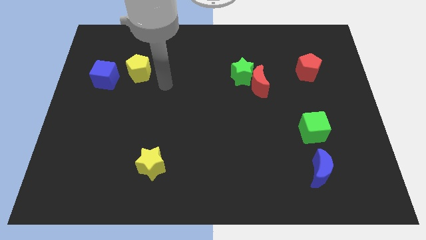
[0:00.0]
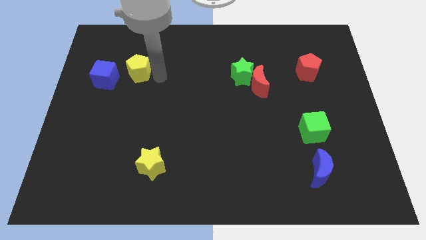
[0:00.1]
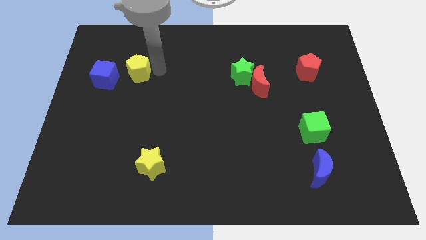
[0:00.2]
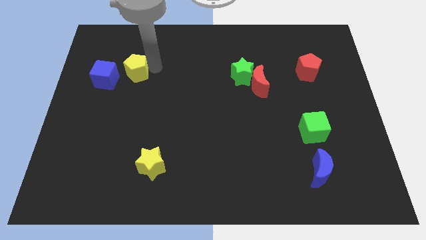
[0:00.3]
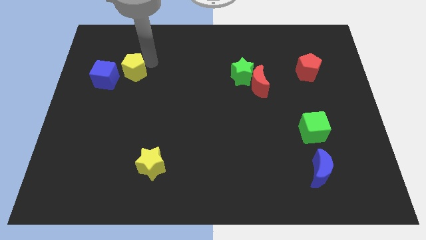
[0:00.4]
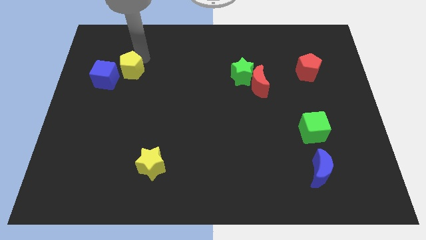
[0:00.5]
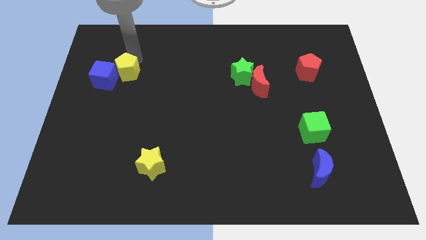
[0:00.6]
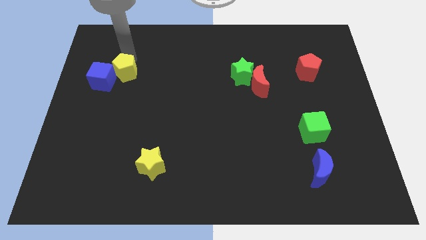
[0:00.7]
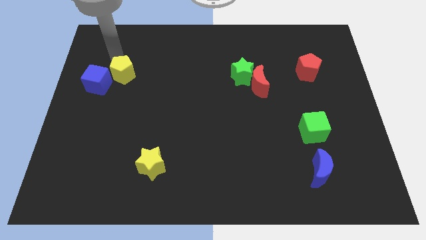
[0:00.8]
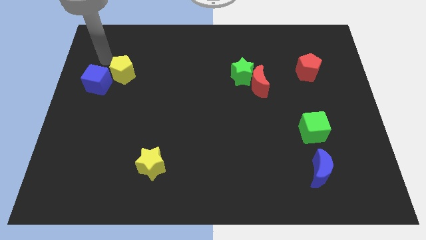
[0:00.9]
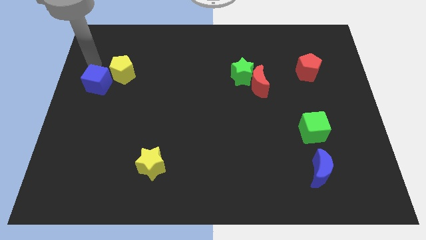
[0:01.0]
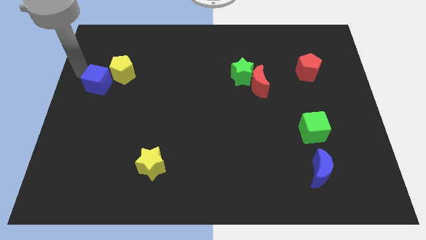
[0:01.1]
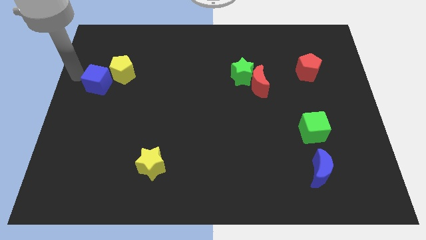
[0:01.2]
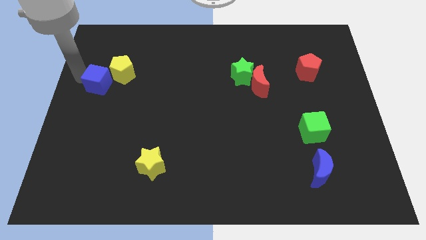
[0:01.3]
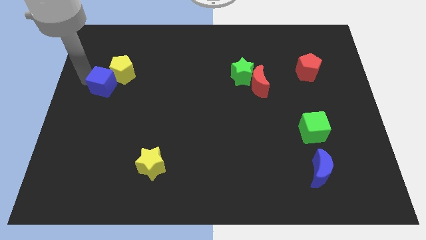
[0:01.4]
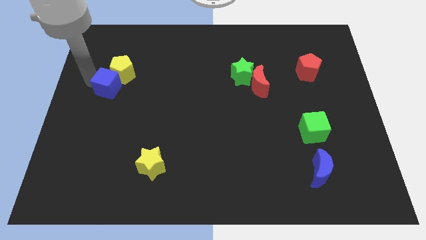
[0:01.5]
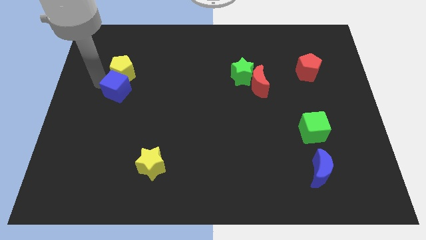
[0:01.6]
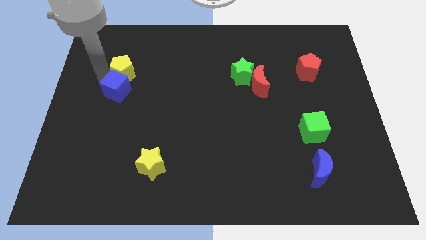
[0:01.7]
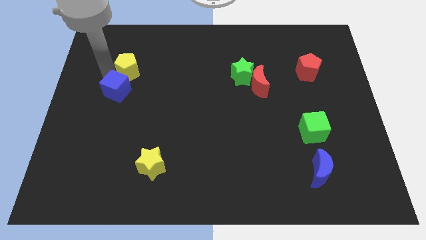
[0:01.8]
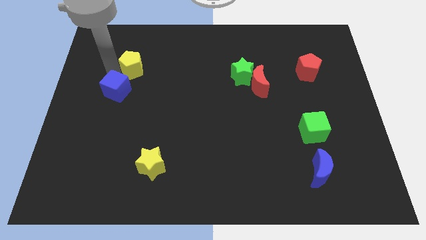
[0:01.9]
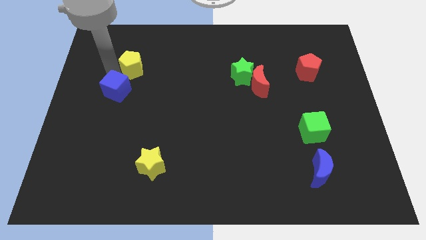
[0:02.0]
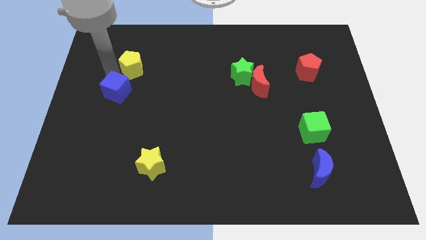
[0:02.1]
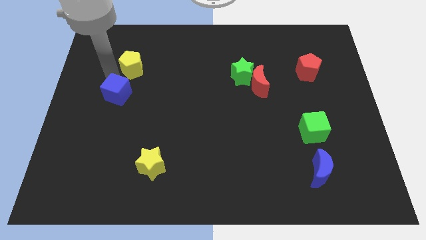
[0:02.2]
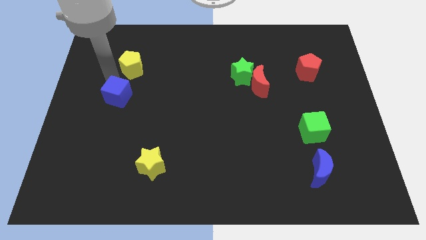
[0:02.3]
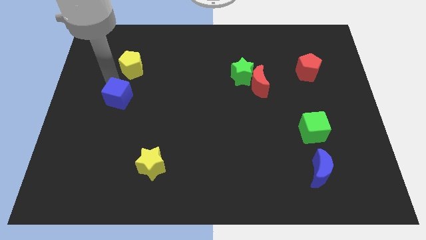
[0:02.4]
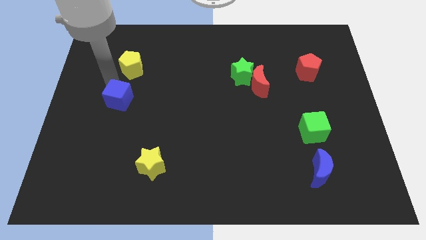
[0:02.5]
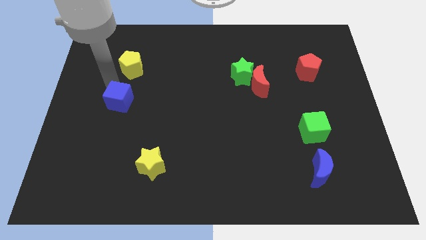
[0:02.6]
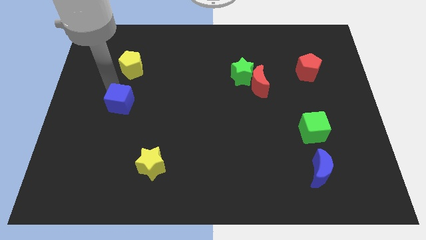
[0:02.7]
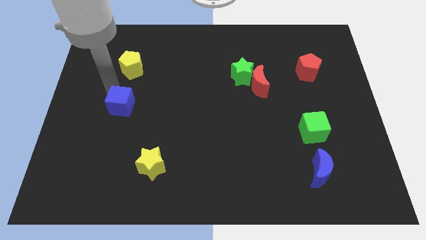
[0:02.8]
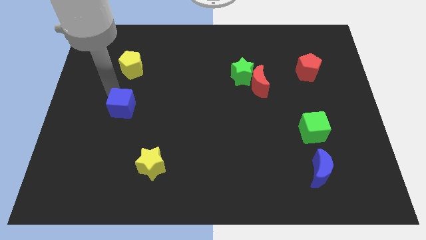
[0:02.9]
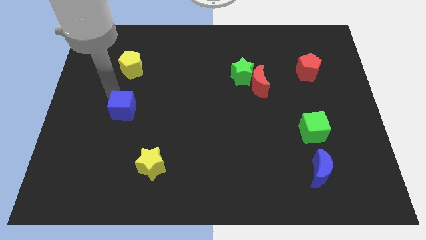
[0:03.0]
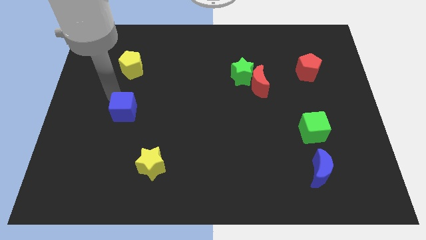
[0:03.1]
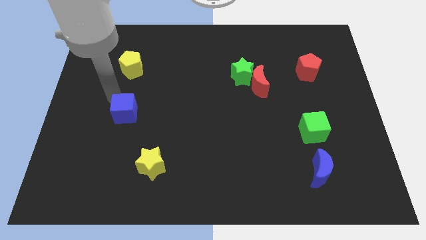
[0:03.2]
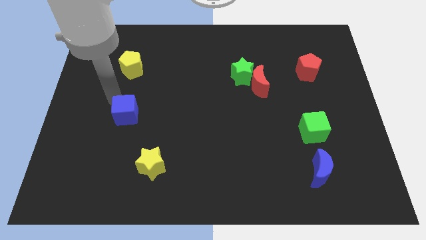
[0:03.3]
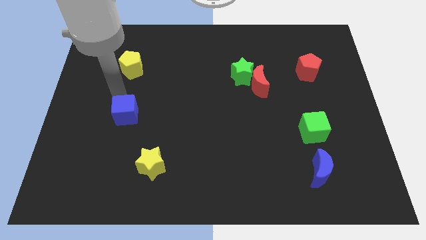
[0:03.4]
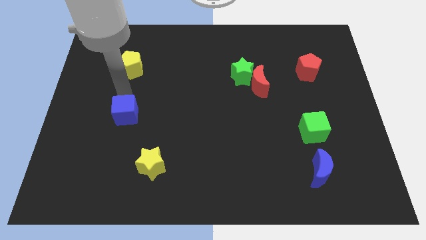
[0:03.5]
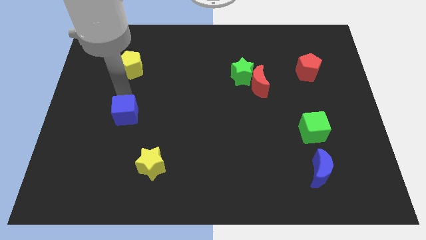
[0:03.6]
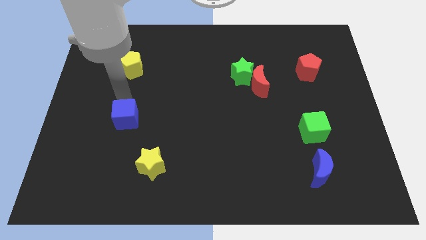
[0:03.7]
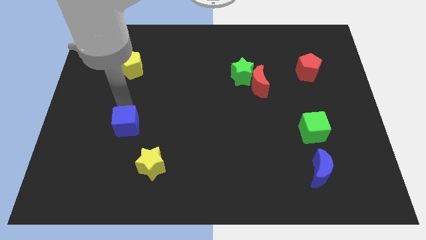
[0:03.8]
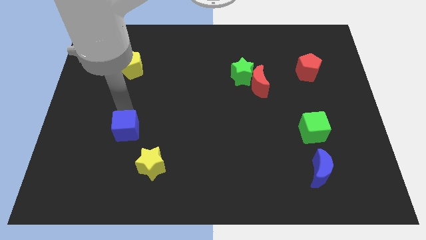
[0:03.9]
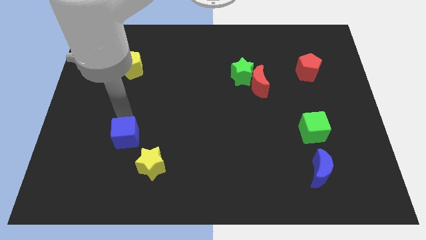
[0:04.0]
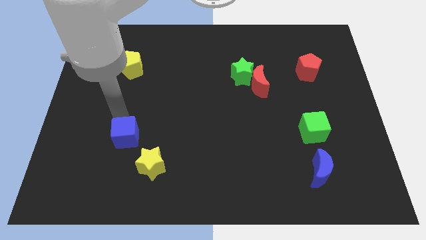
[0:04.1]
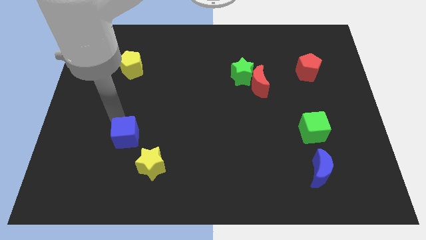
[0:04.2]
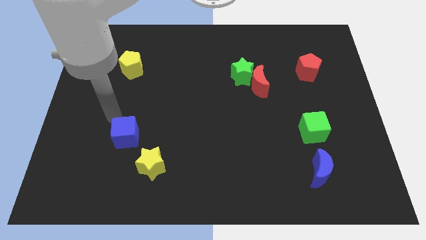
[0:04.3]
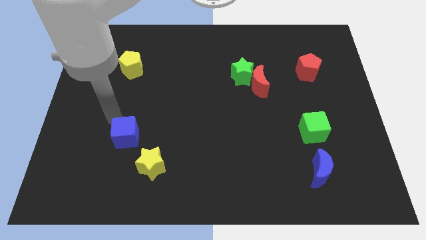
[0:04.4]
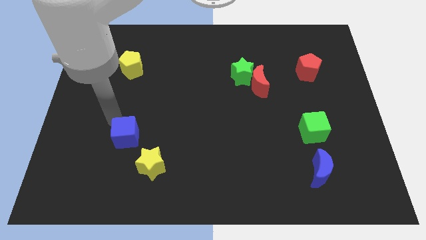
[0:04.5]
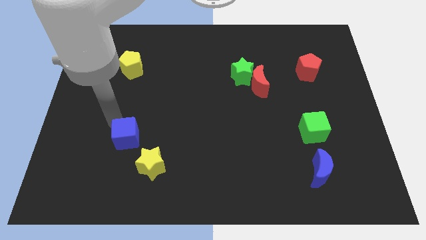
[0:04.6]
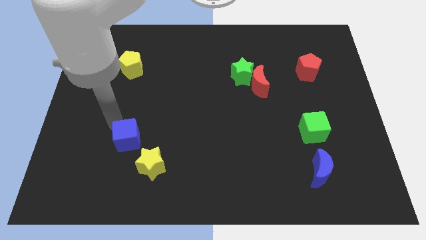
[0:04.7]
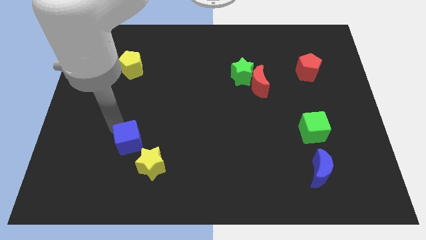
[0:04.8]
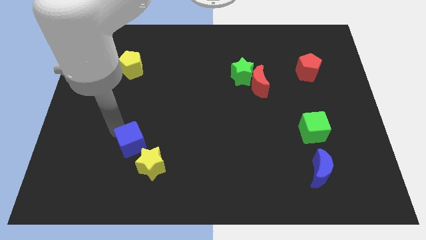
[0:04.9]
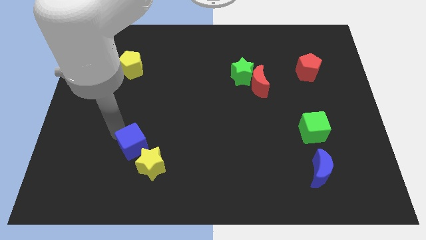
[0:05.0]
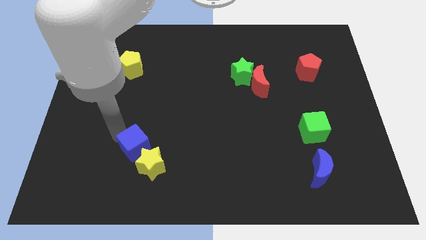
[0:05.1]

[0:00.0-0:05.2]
put the blue cube to the yellow star

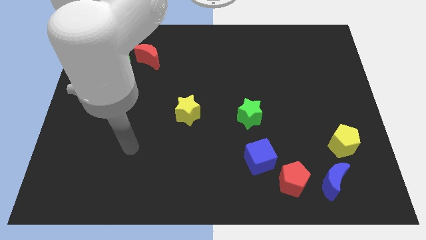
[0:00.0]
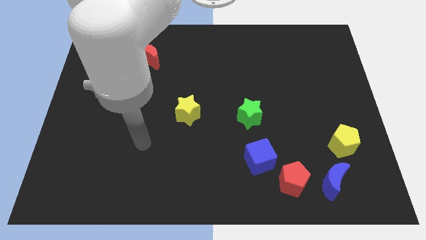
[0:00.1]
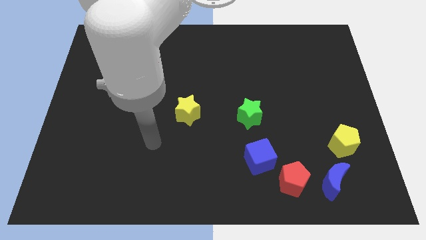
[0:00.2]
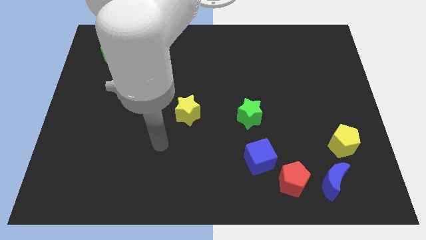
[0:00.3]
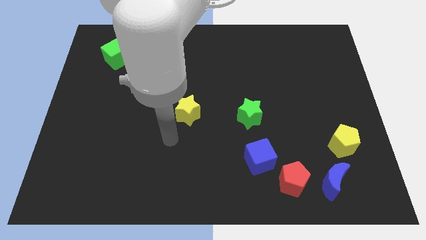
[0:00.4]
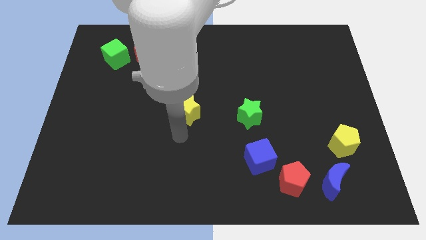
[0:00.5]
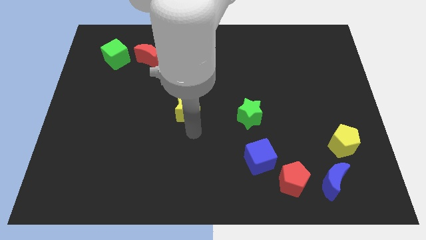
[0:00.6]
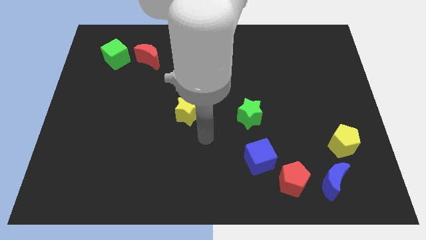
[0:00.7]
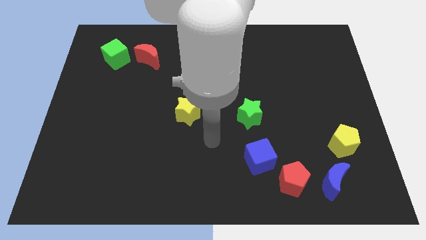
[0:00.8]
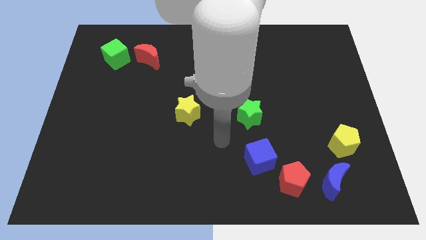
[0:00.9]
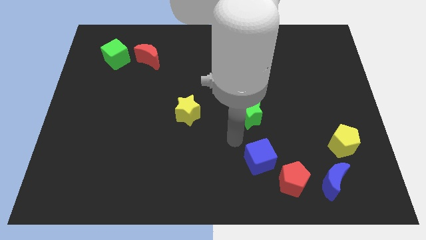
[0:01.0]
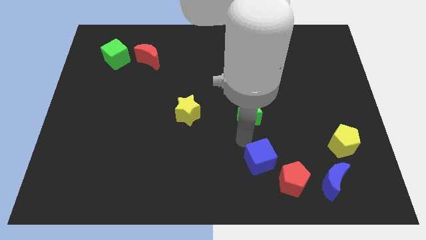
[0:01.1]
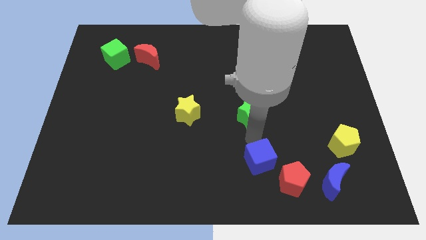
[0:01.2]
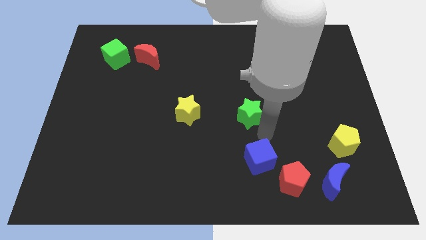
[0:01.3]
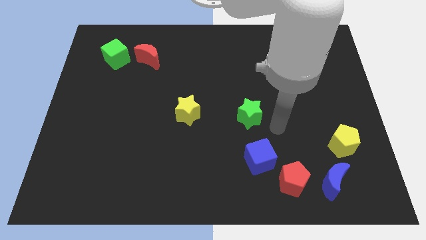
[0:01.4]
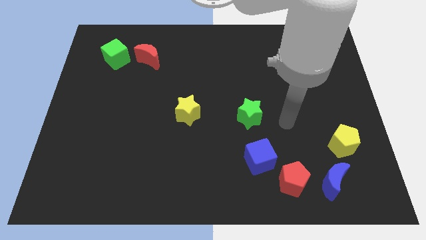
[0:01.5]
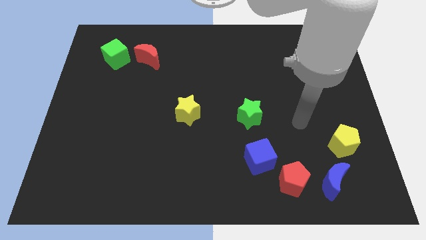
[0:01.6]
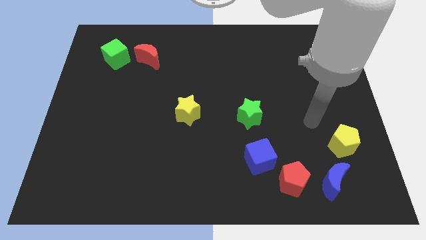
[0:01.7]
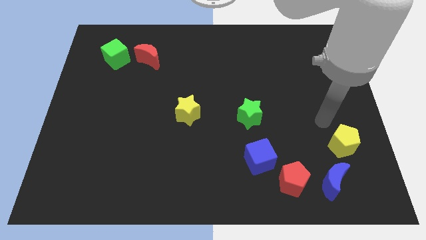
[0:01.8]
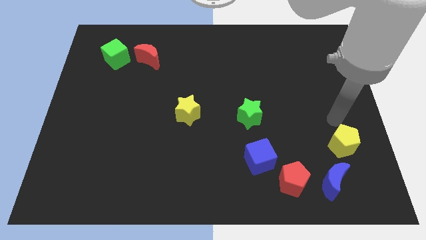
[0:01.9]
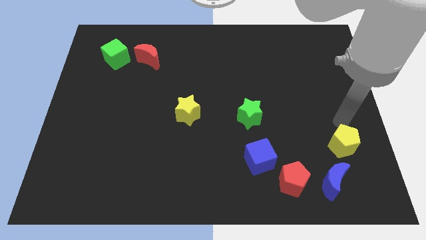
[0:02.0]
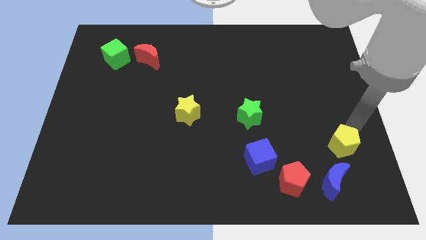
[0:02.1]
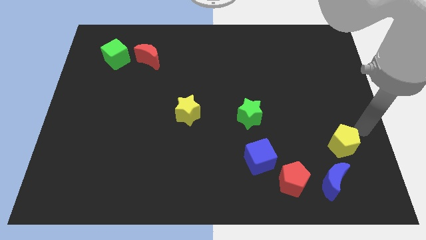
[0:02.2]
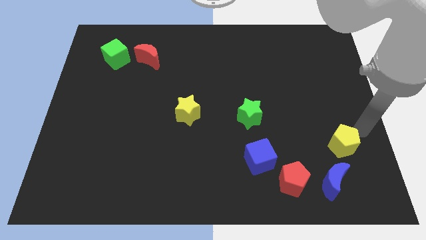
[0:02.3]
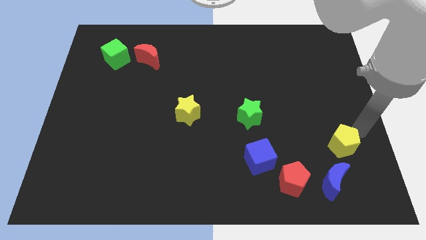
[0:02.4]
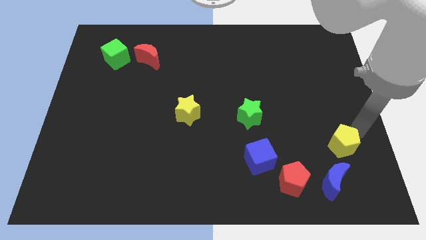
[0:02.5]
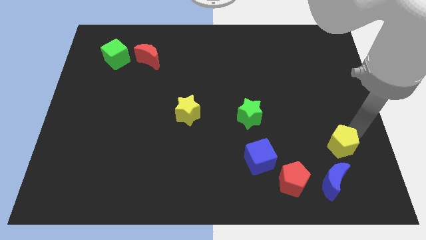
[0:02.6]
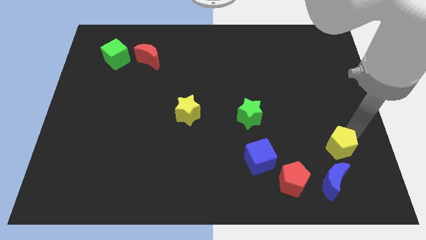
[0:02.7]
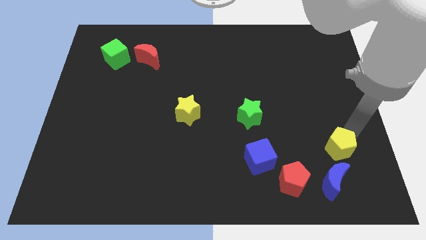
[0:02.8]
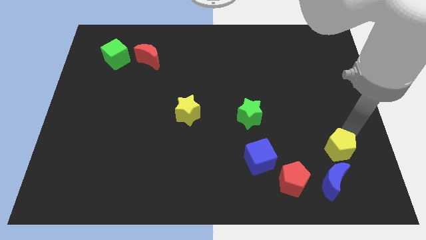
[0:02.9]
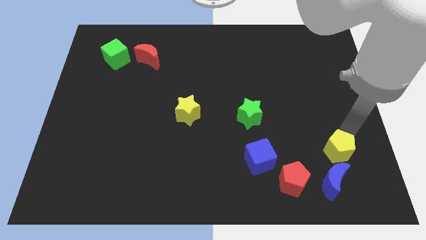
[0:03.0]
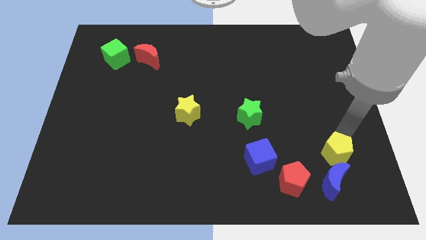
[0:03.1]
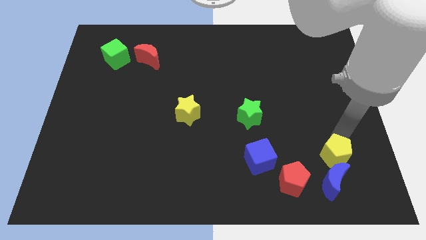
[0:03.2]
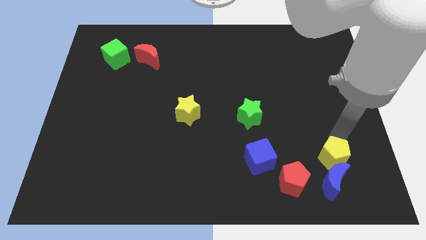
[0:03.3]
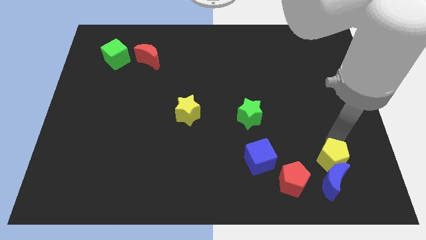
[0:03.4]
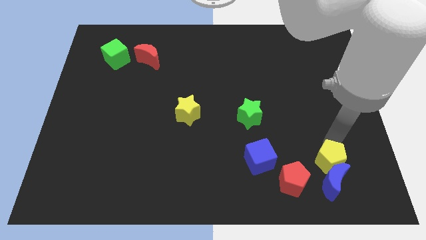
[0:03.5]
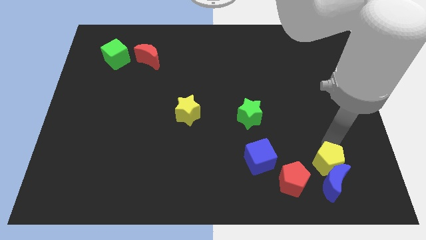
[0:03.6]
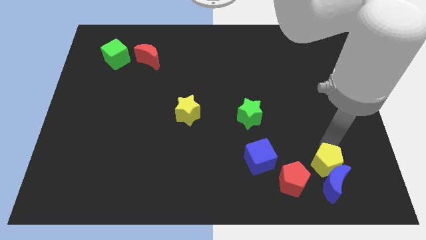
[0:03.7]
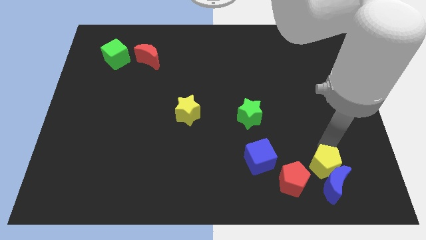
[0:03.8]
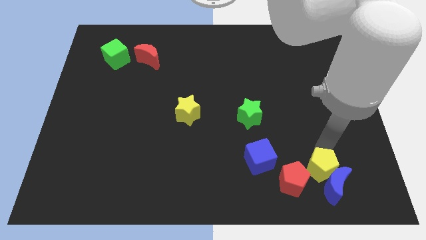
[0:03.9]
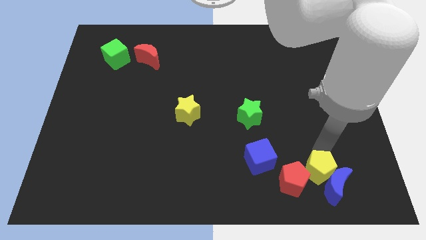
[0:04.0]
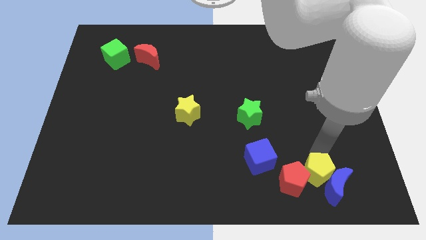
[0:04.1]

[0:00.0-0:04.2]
move the yellow pentagon next to the red pentagon
